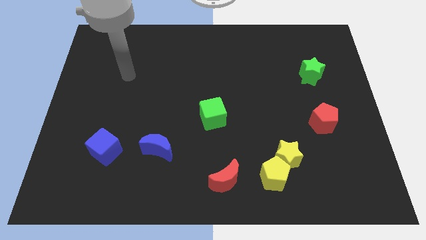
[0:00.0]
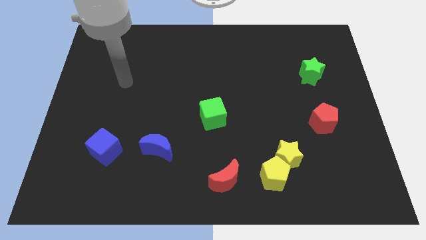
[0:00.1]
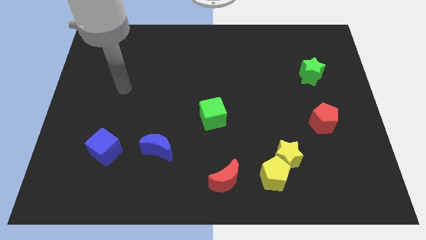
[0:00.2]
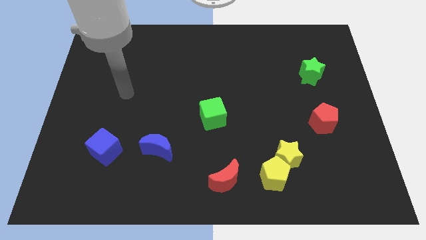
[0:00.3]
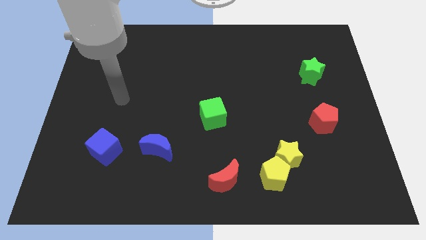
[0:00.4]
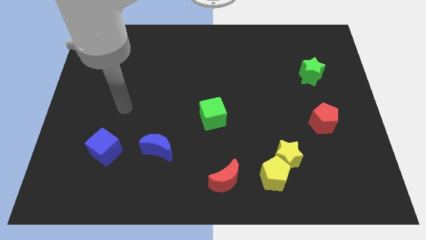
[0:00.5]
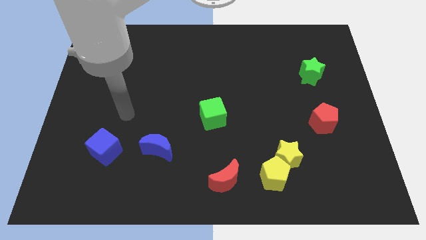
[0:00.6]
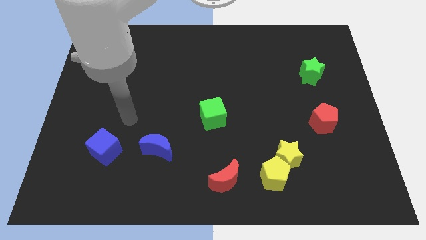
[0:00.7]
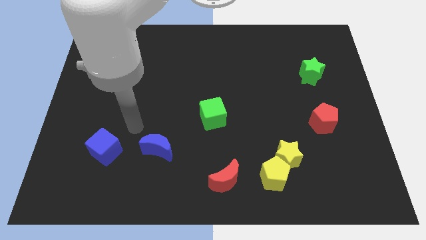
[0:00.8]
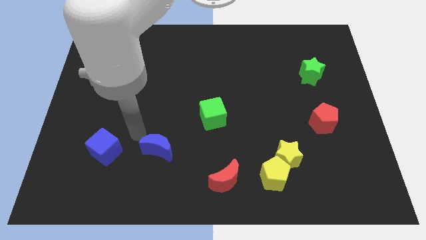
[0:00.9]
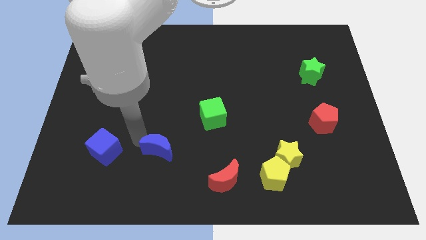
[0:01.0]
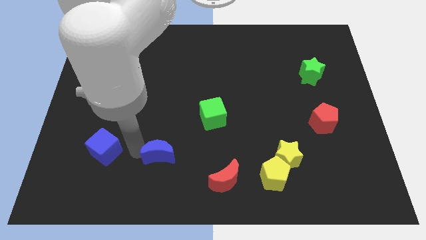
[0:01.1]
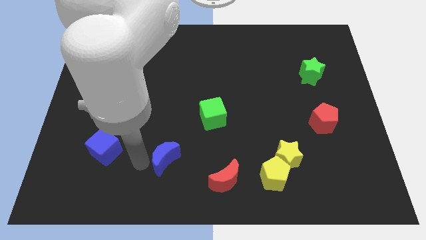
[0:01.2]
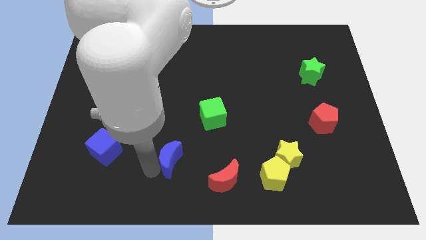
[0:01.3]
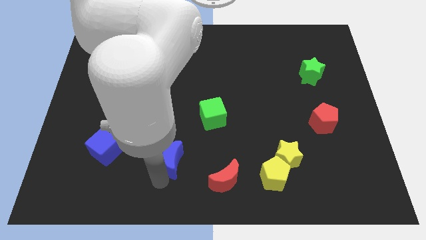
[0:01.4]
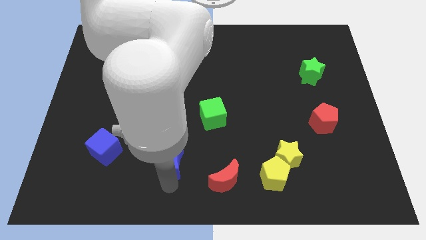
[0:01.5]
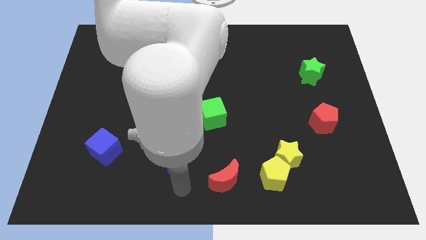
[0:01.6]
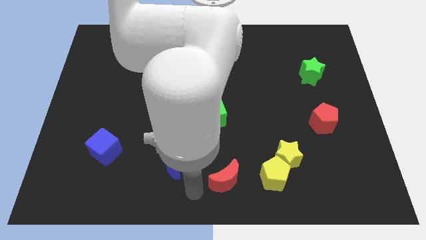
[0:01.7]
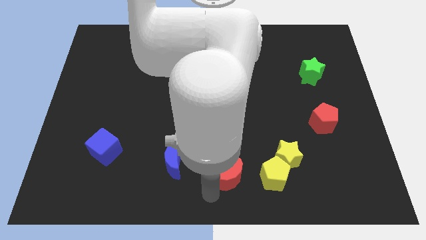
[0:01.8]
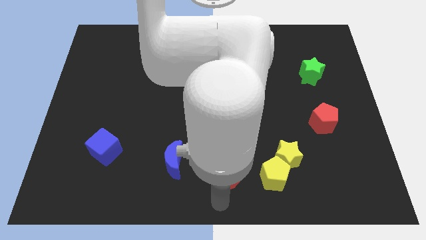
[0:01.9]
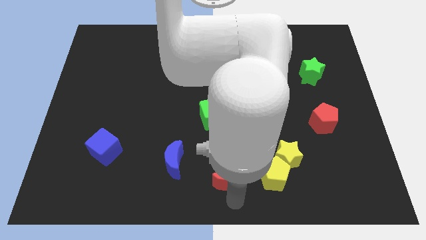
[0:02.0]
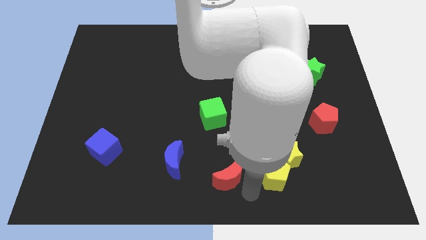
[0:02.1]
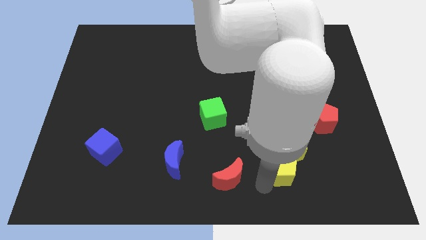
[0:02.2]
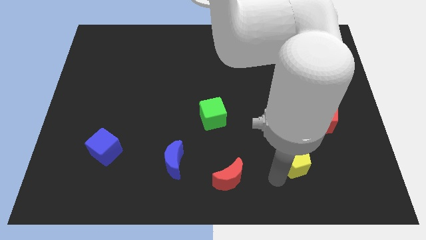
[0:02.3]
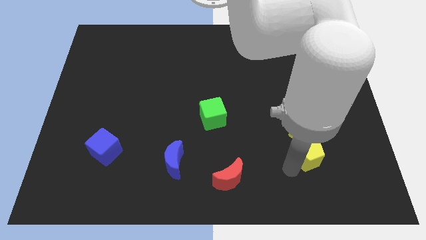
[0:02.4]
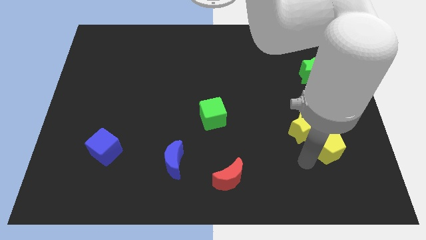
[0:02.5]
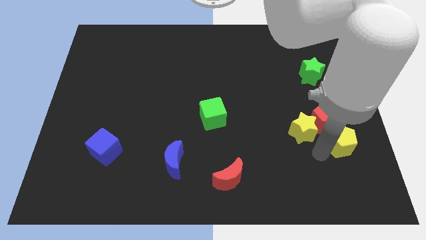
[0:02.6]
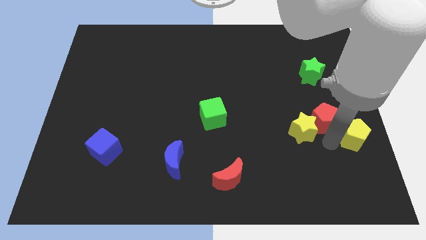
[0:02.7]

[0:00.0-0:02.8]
separate the yellow star from the yellow pentagon

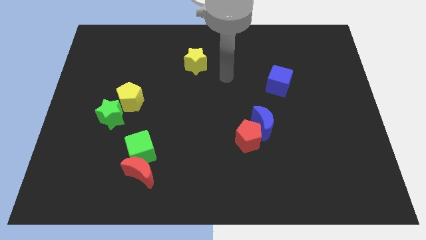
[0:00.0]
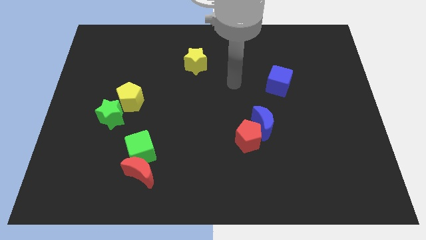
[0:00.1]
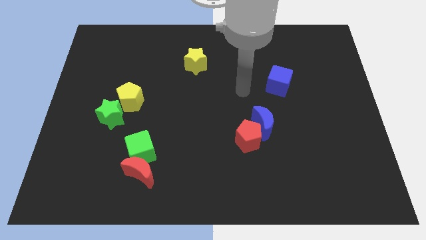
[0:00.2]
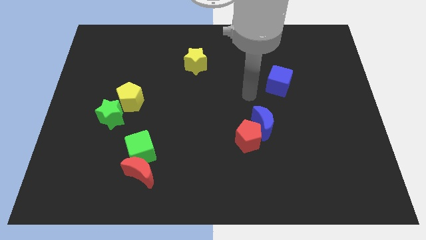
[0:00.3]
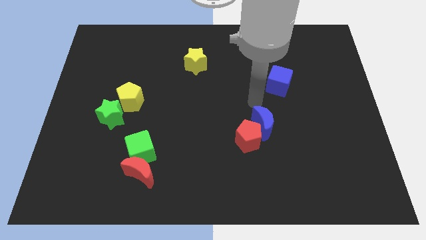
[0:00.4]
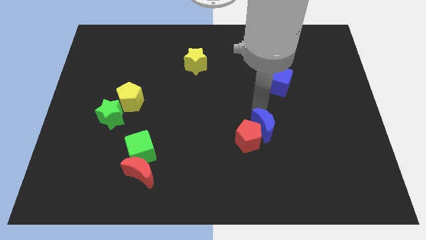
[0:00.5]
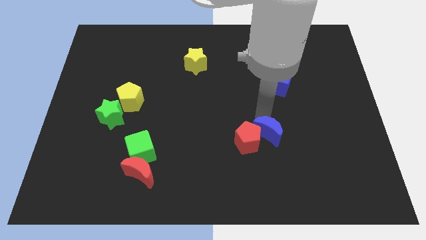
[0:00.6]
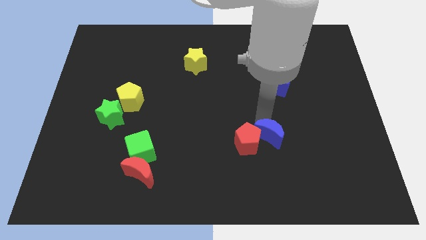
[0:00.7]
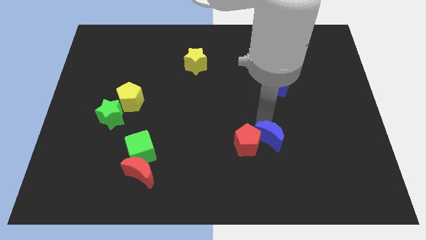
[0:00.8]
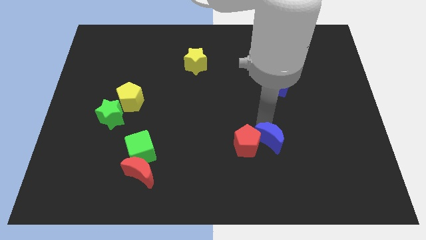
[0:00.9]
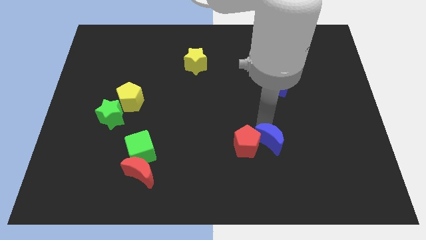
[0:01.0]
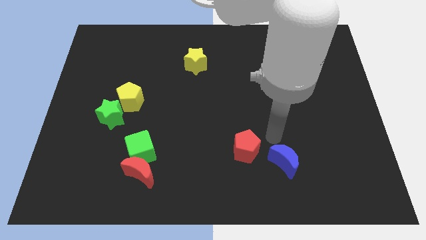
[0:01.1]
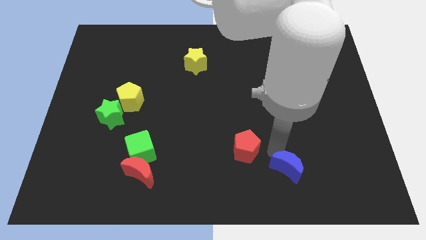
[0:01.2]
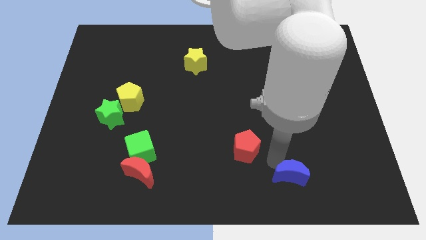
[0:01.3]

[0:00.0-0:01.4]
separate the red pentagon from the blue moon

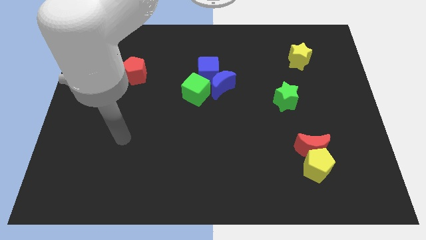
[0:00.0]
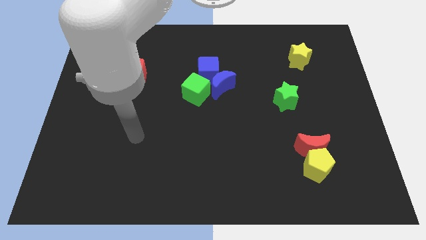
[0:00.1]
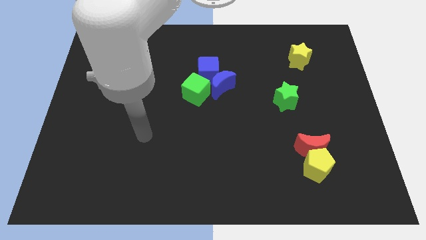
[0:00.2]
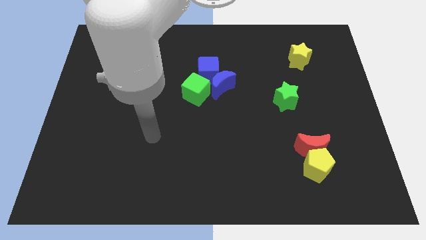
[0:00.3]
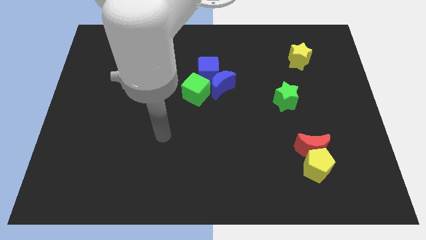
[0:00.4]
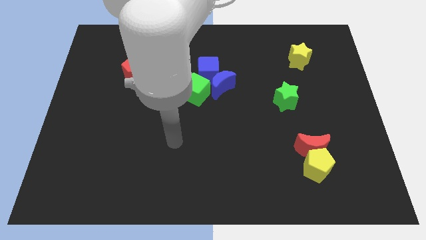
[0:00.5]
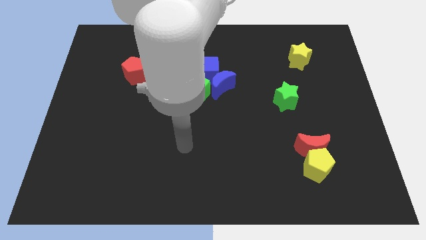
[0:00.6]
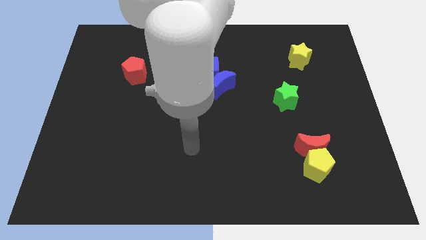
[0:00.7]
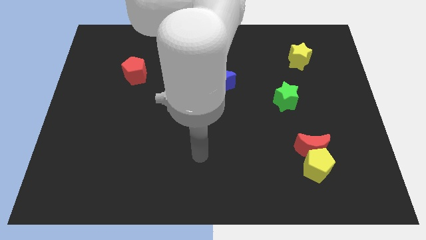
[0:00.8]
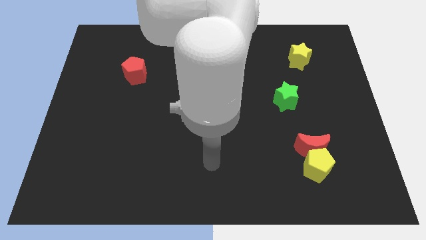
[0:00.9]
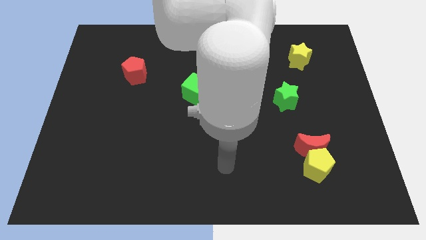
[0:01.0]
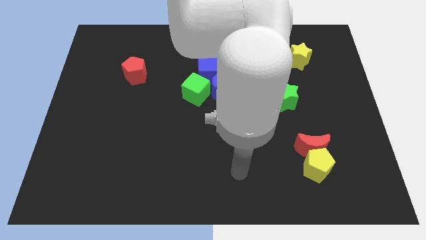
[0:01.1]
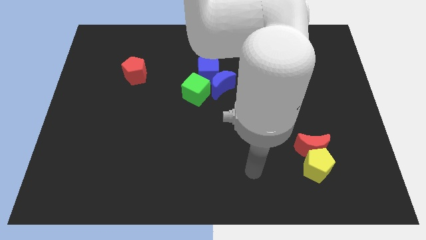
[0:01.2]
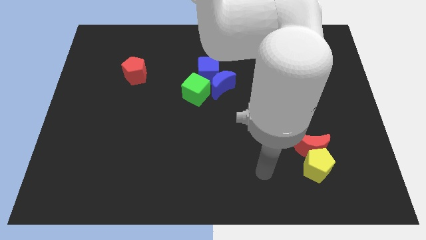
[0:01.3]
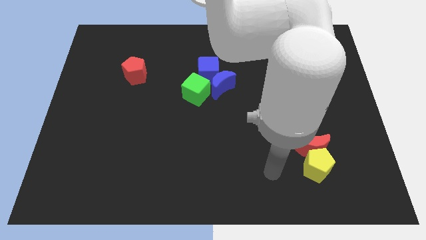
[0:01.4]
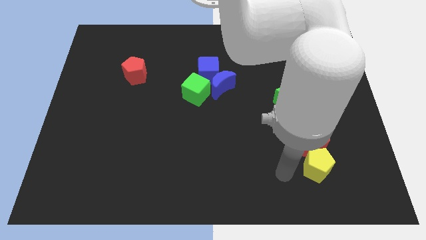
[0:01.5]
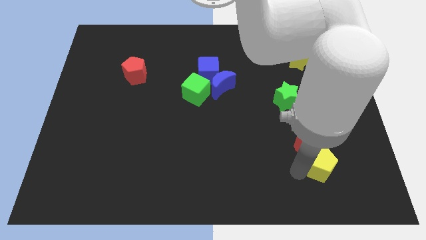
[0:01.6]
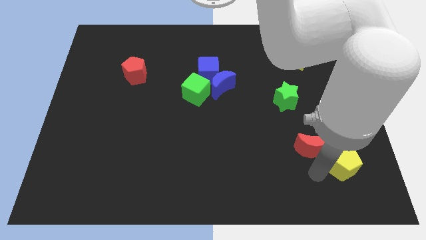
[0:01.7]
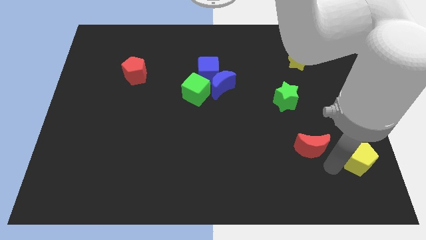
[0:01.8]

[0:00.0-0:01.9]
move the red moon away from the yellow pentagon

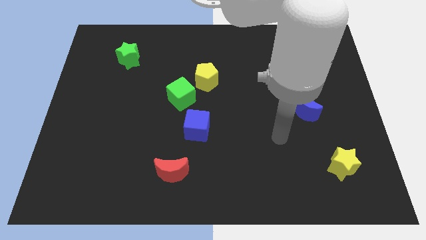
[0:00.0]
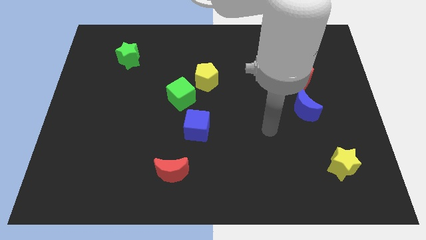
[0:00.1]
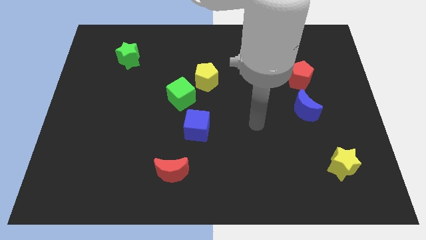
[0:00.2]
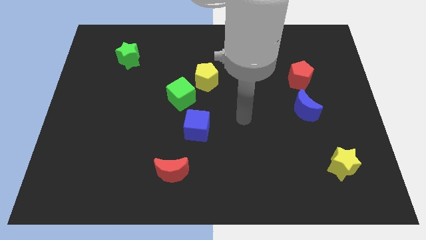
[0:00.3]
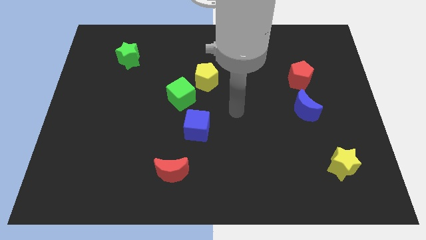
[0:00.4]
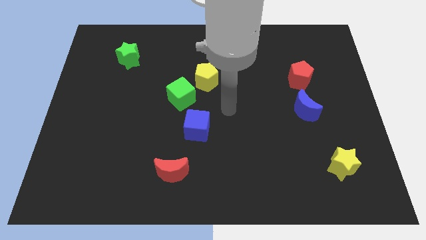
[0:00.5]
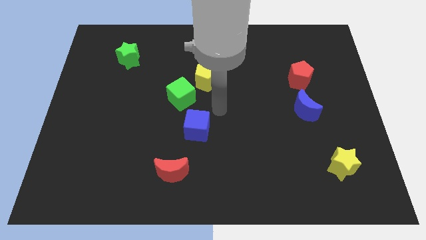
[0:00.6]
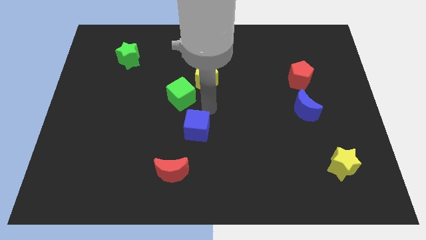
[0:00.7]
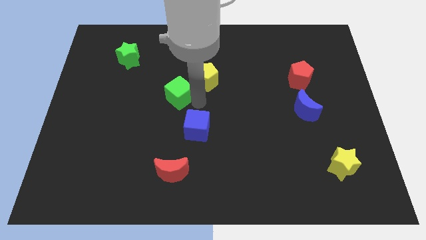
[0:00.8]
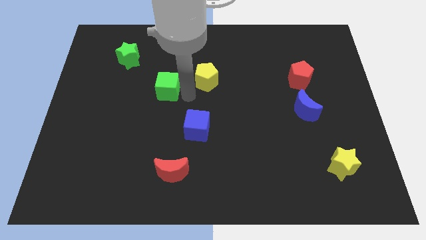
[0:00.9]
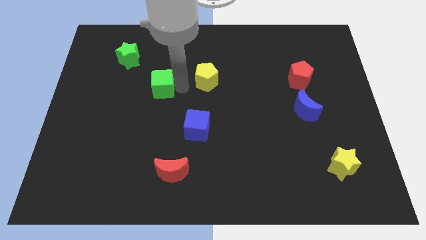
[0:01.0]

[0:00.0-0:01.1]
move the yellow pentagon away from the green cube

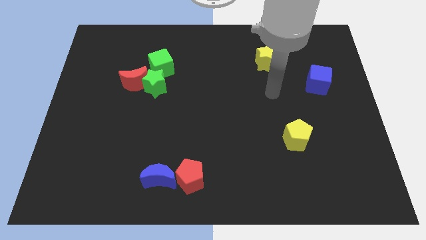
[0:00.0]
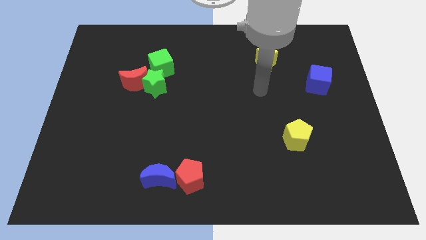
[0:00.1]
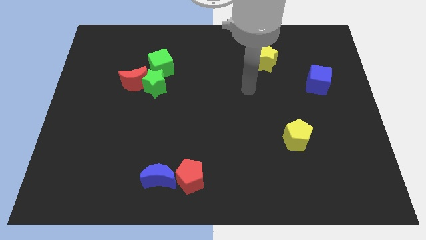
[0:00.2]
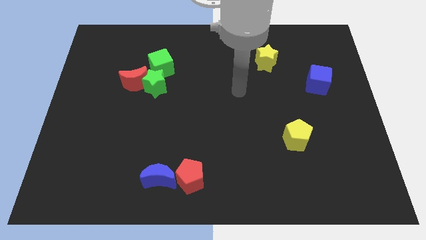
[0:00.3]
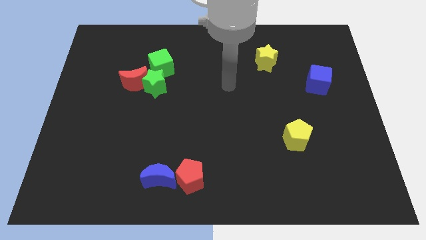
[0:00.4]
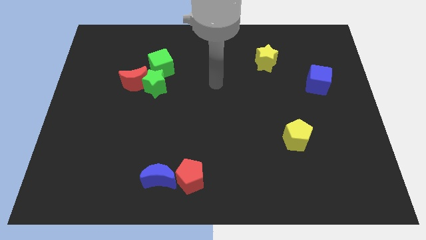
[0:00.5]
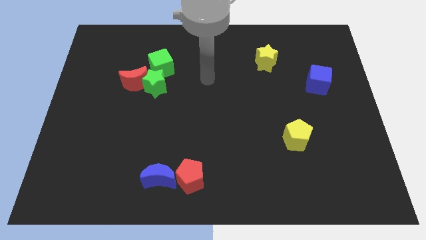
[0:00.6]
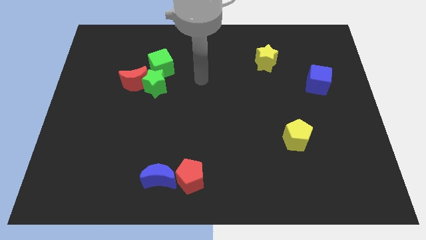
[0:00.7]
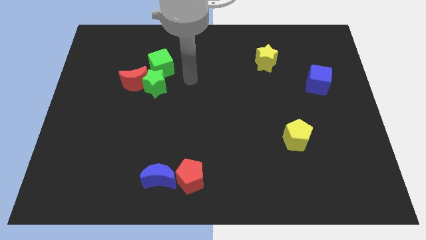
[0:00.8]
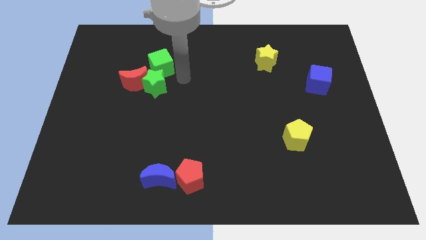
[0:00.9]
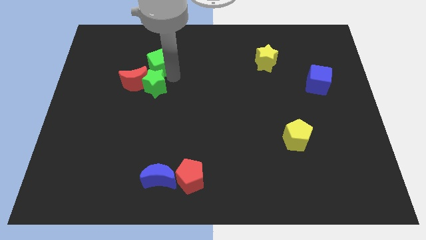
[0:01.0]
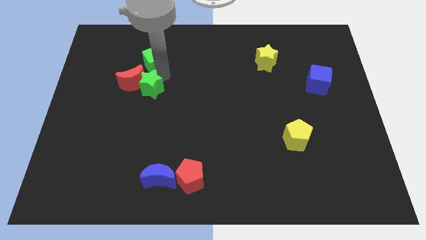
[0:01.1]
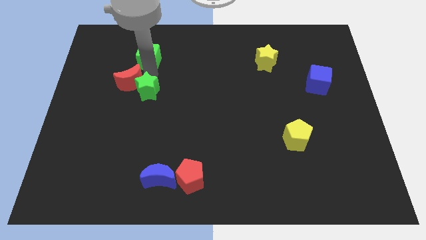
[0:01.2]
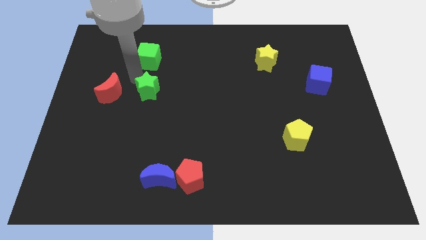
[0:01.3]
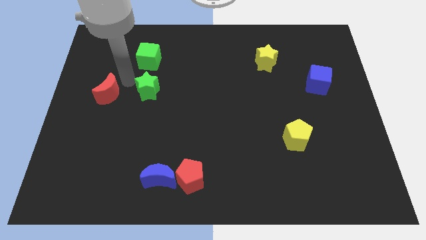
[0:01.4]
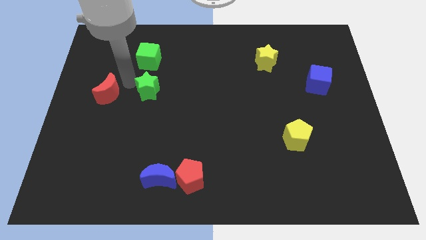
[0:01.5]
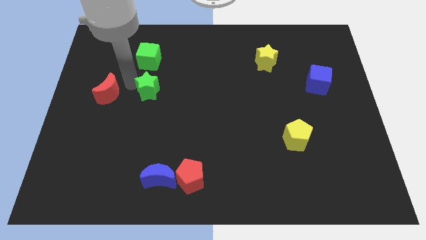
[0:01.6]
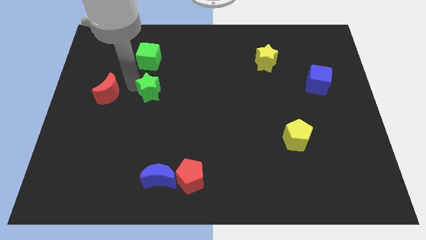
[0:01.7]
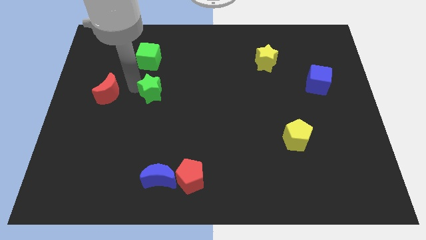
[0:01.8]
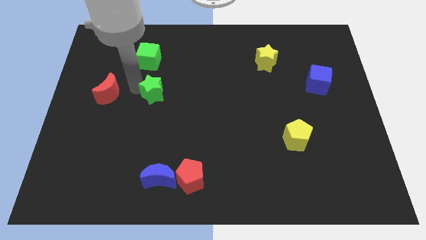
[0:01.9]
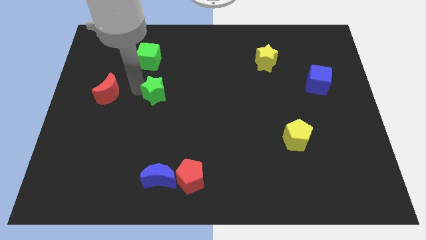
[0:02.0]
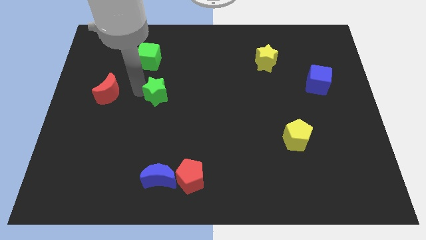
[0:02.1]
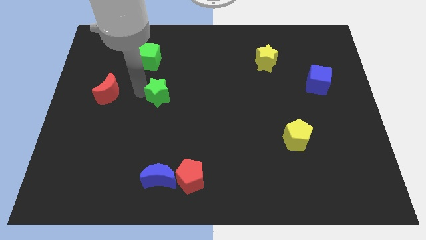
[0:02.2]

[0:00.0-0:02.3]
separate the green star from the red moon and green cube
